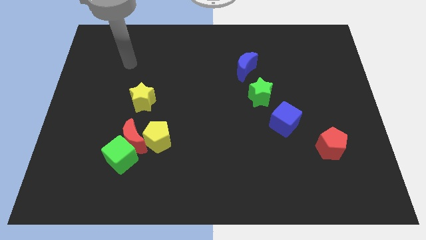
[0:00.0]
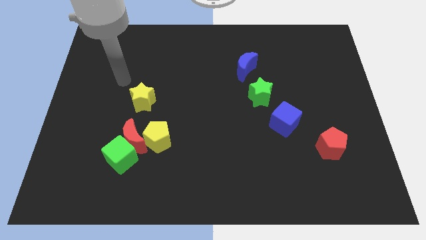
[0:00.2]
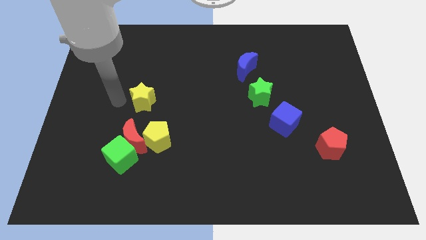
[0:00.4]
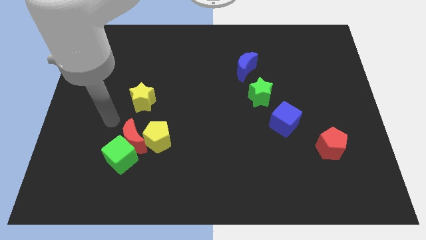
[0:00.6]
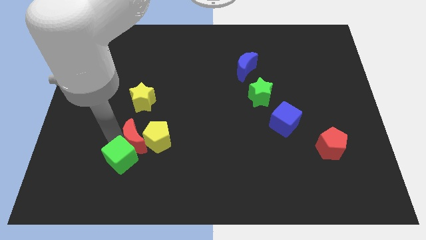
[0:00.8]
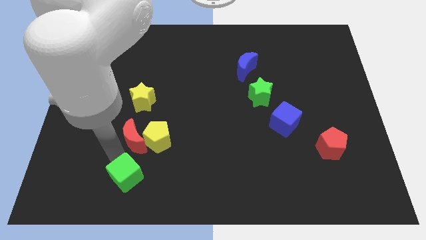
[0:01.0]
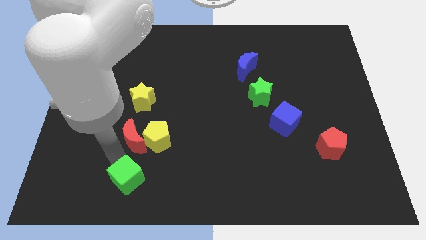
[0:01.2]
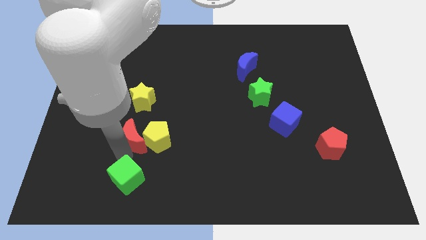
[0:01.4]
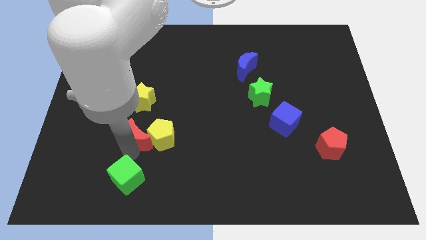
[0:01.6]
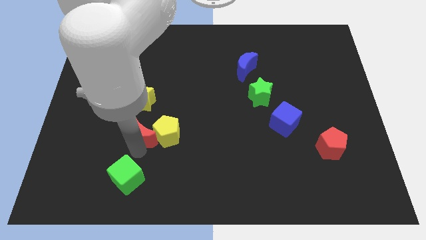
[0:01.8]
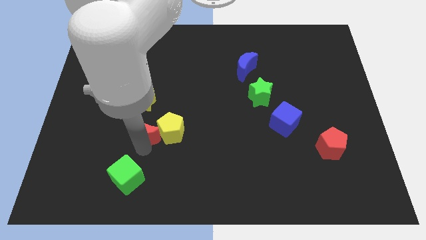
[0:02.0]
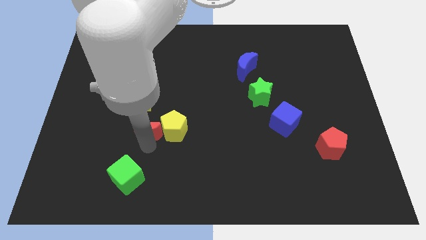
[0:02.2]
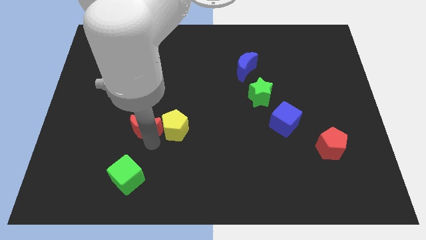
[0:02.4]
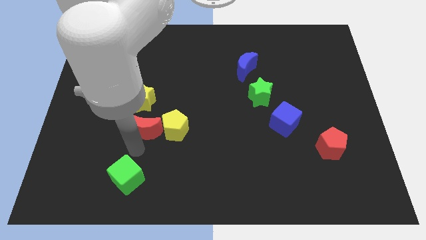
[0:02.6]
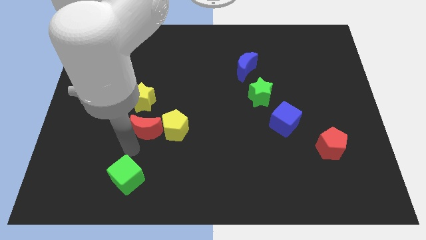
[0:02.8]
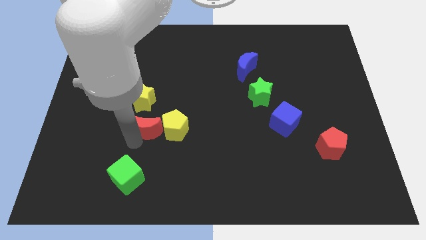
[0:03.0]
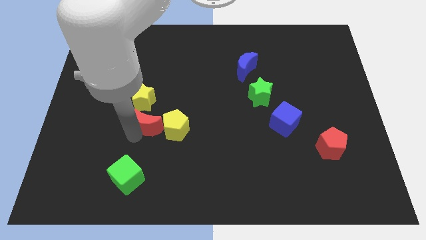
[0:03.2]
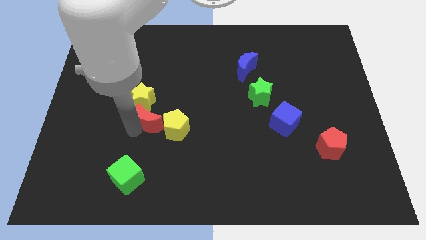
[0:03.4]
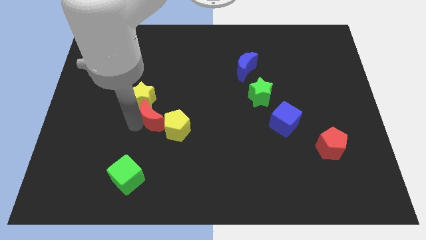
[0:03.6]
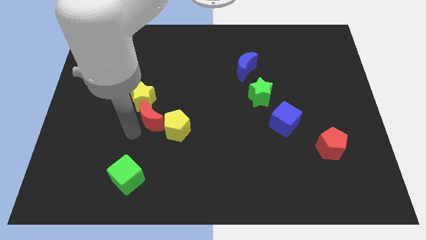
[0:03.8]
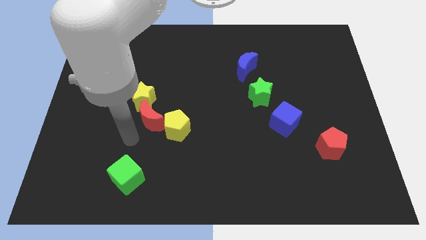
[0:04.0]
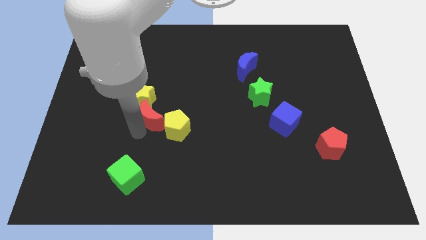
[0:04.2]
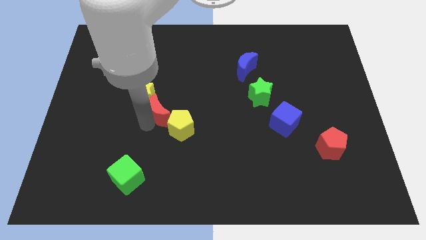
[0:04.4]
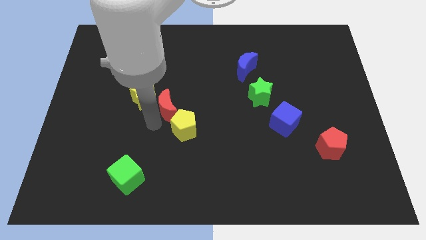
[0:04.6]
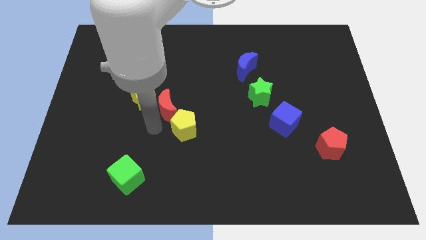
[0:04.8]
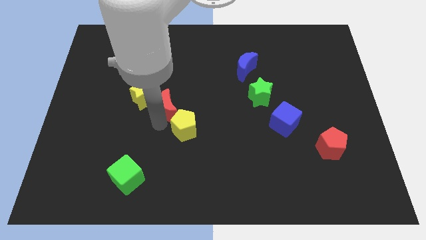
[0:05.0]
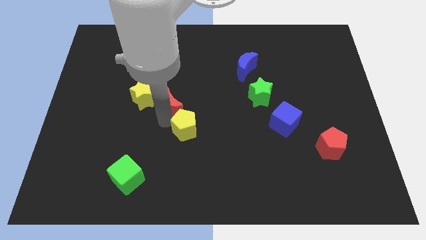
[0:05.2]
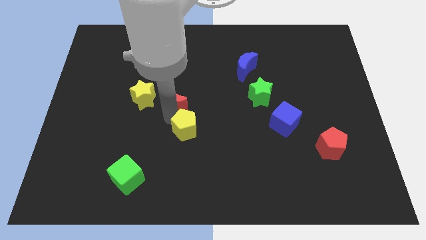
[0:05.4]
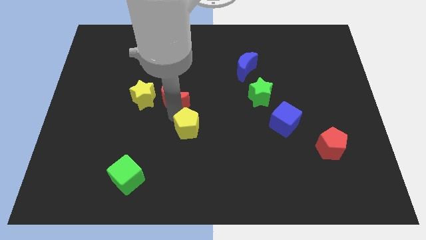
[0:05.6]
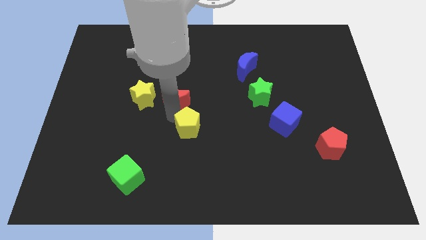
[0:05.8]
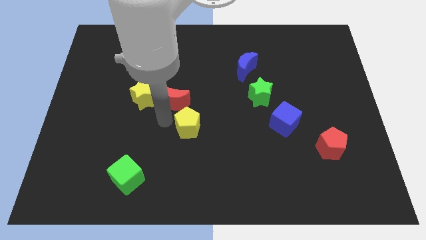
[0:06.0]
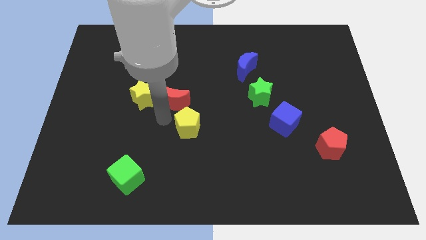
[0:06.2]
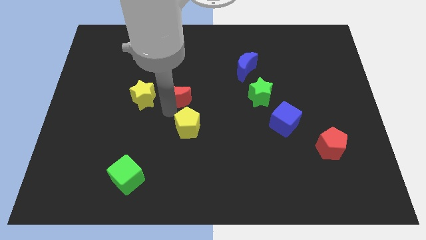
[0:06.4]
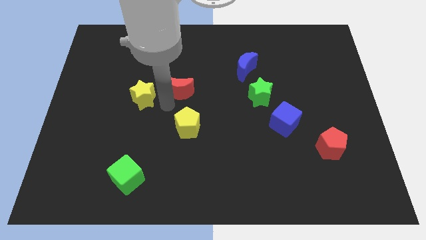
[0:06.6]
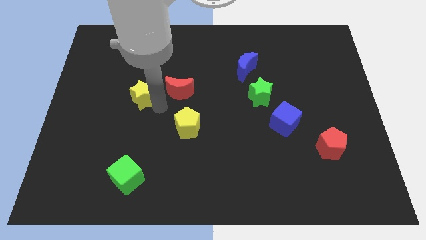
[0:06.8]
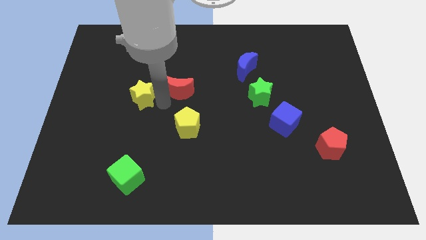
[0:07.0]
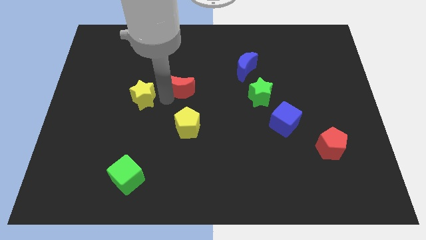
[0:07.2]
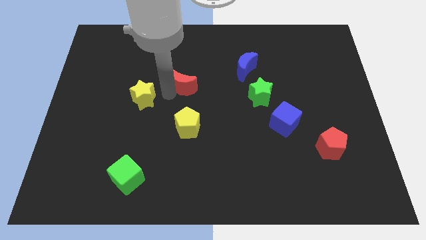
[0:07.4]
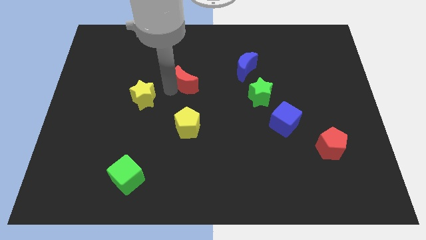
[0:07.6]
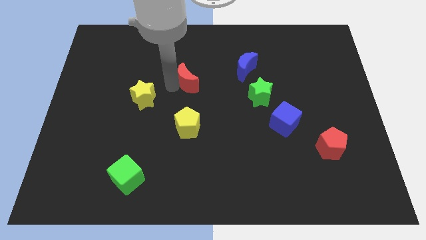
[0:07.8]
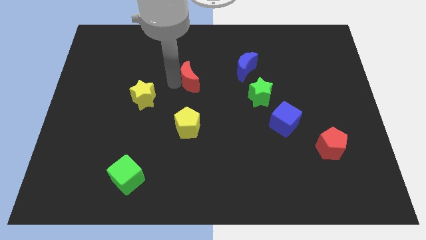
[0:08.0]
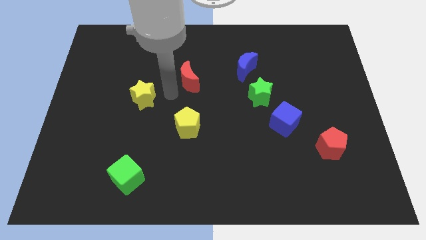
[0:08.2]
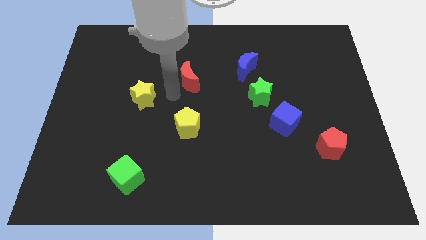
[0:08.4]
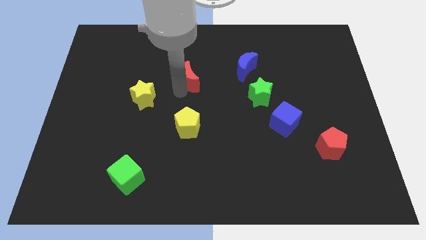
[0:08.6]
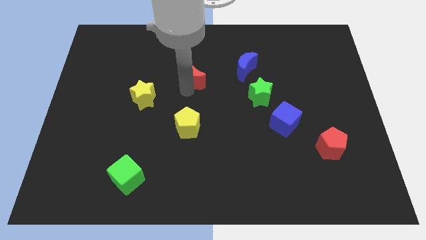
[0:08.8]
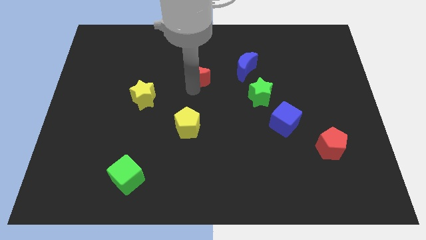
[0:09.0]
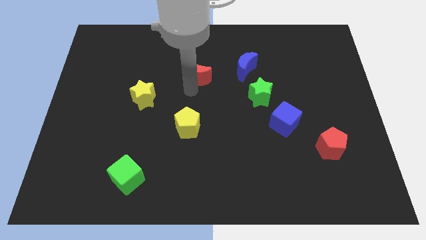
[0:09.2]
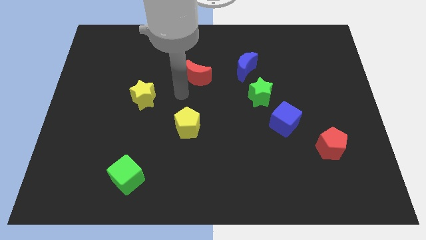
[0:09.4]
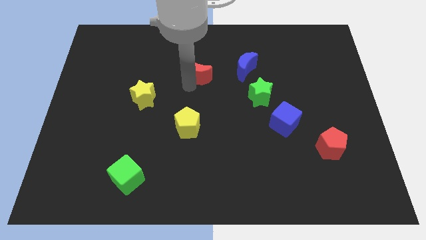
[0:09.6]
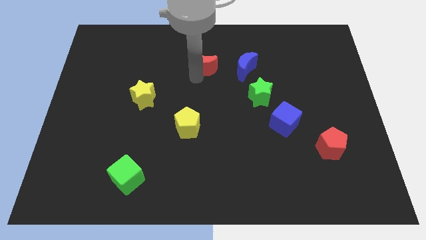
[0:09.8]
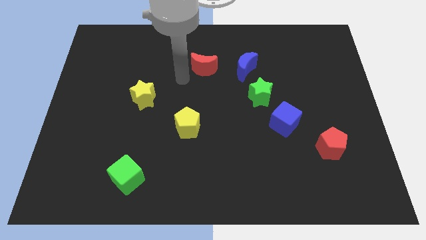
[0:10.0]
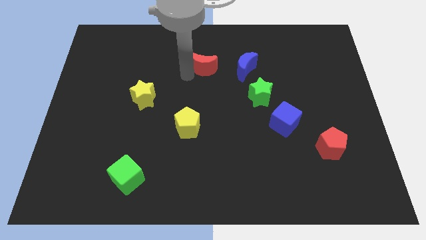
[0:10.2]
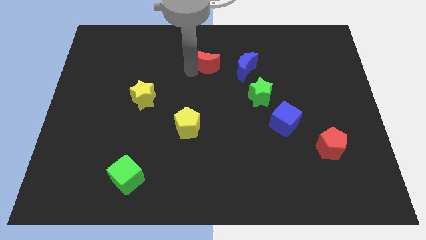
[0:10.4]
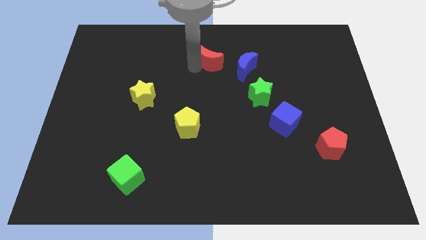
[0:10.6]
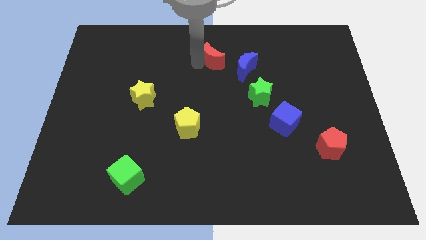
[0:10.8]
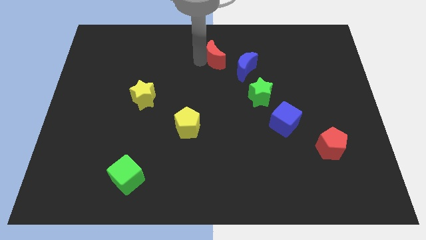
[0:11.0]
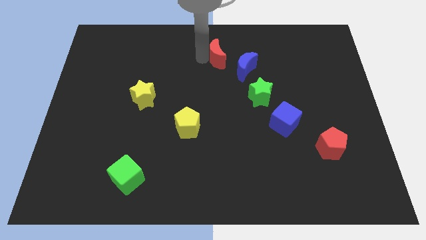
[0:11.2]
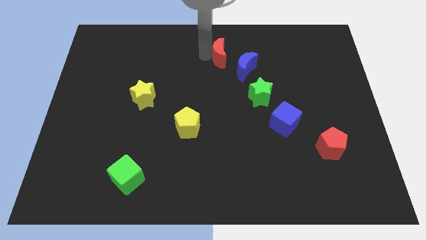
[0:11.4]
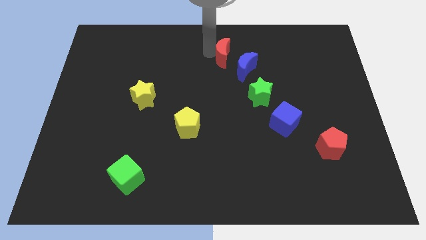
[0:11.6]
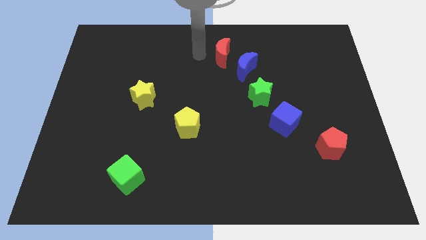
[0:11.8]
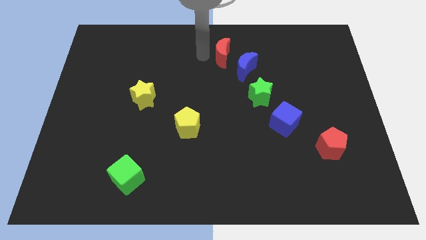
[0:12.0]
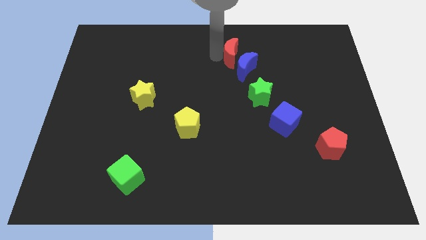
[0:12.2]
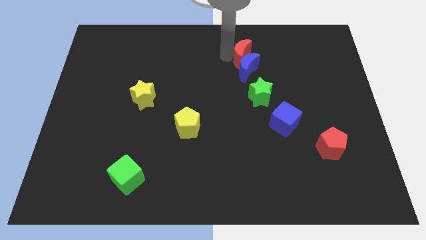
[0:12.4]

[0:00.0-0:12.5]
push the red moon to the top right of the blue moon
